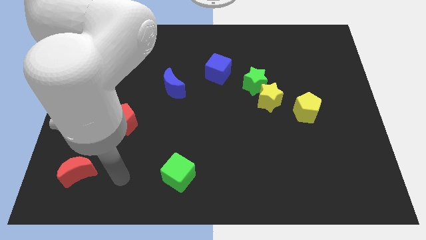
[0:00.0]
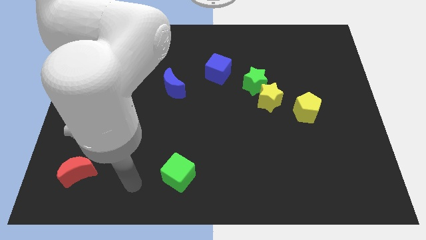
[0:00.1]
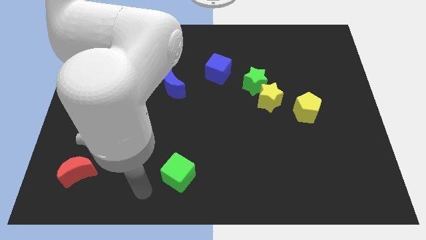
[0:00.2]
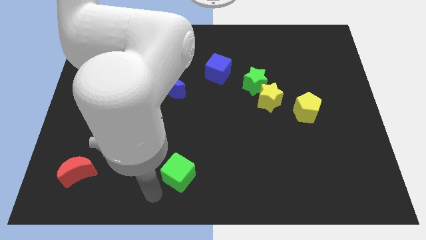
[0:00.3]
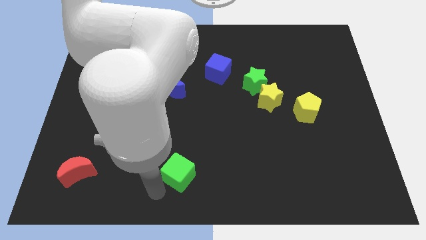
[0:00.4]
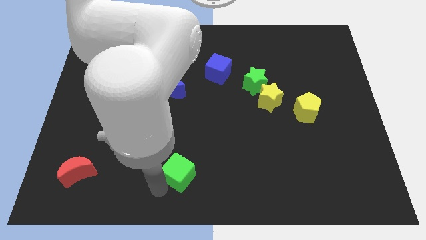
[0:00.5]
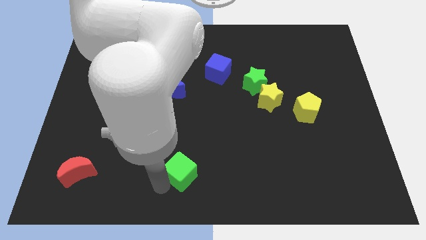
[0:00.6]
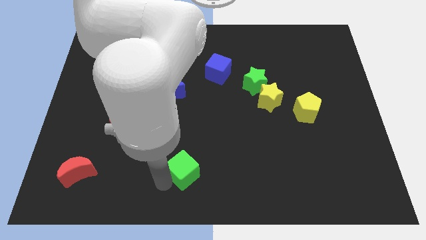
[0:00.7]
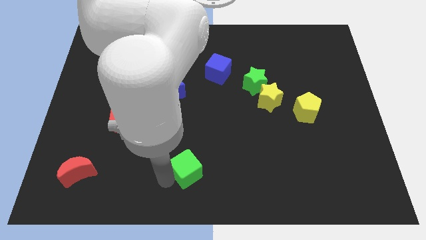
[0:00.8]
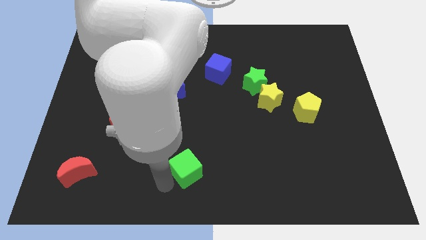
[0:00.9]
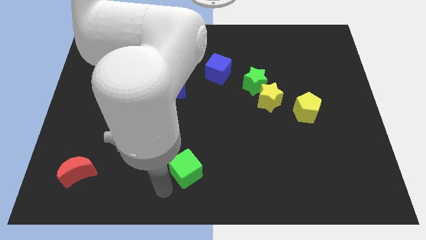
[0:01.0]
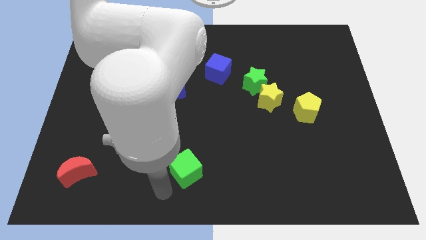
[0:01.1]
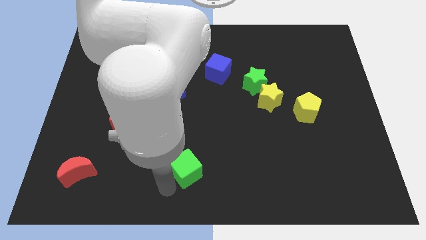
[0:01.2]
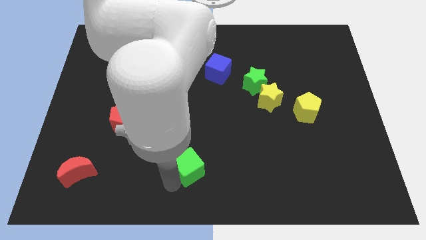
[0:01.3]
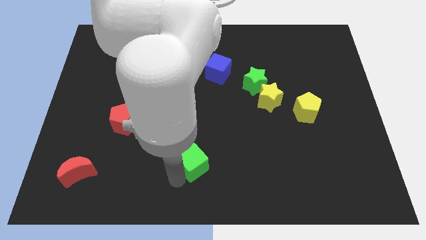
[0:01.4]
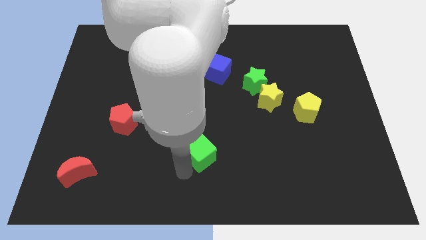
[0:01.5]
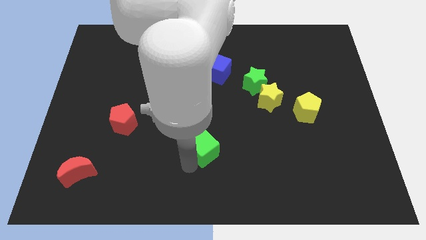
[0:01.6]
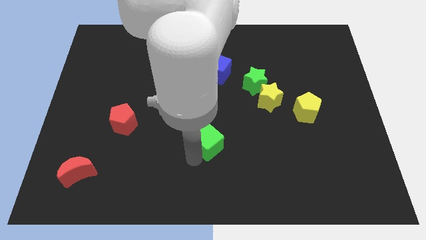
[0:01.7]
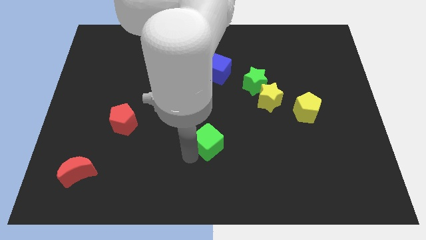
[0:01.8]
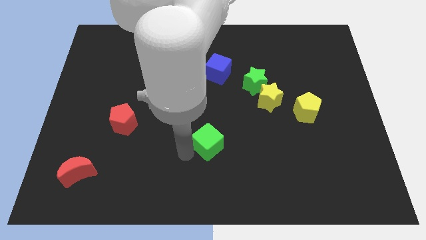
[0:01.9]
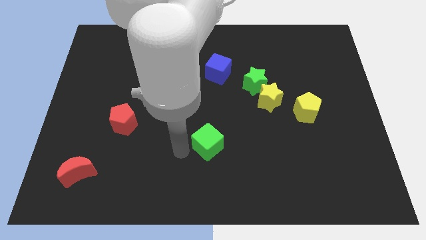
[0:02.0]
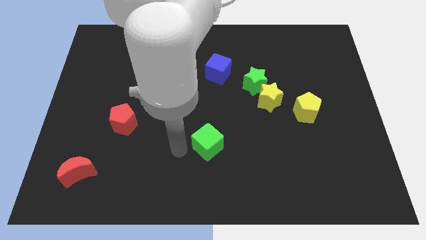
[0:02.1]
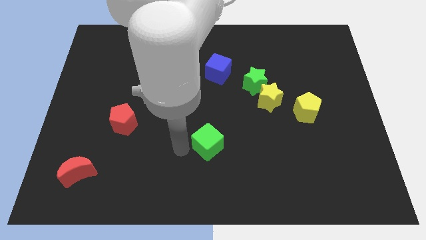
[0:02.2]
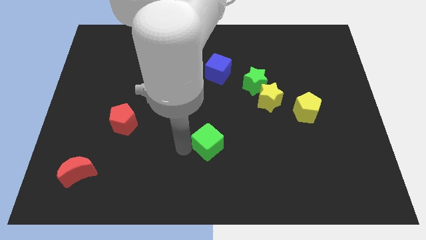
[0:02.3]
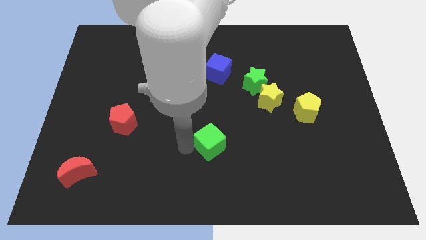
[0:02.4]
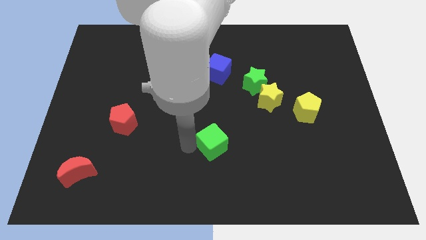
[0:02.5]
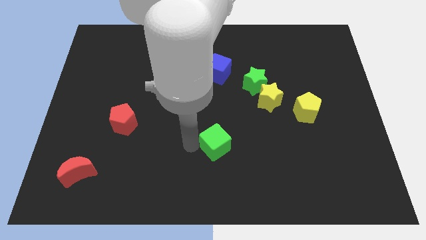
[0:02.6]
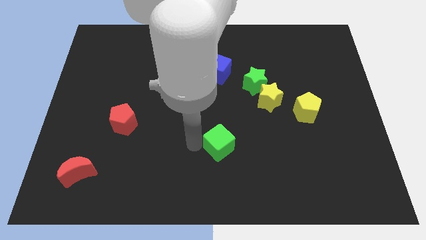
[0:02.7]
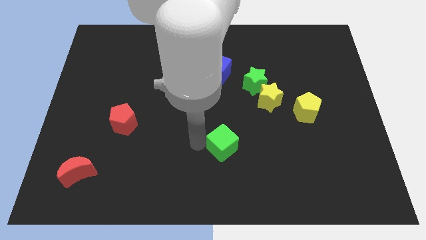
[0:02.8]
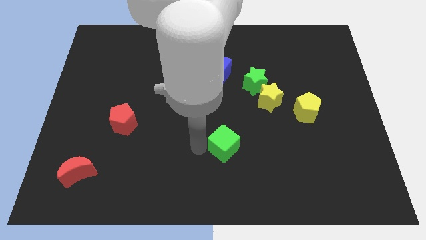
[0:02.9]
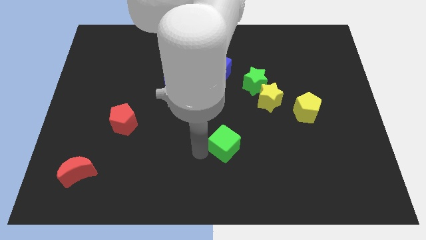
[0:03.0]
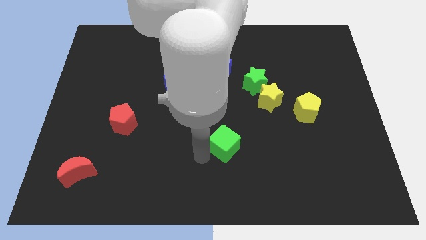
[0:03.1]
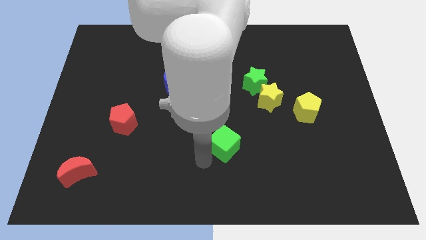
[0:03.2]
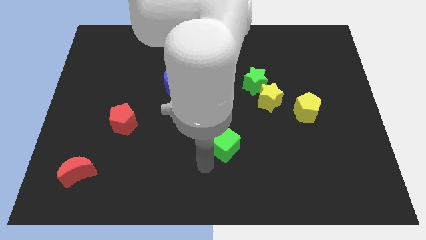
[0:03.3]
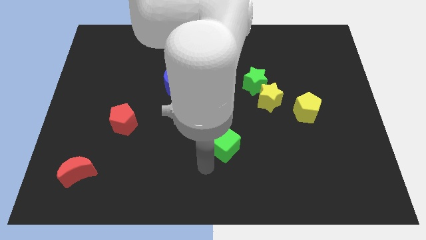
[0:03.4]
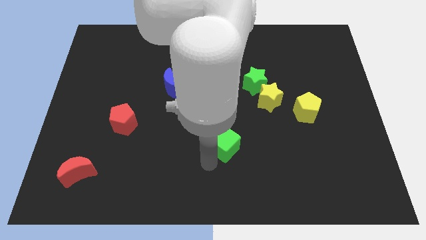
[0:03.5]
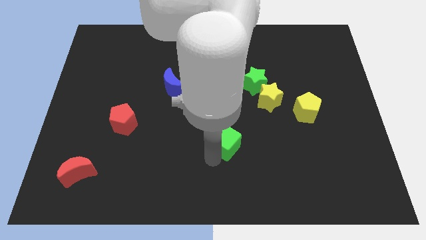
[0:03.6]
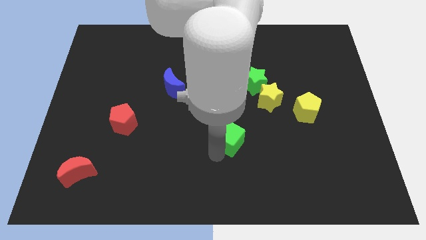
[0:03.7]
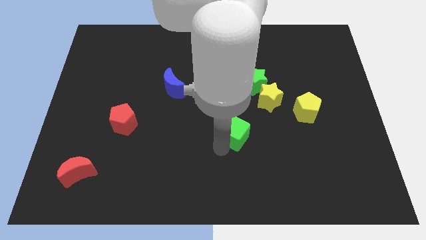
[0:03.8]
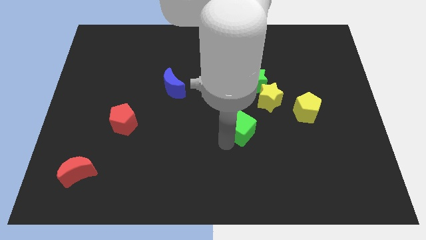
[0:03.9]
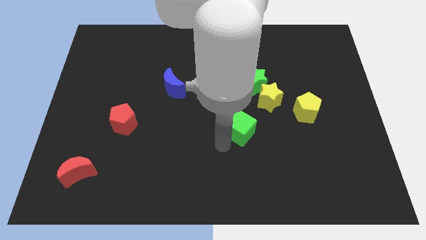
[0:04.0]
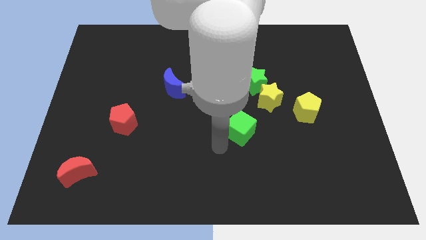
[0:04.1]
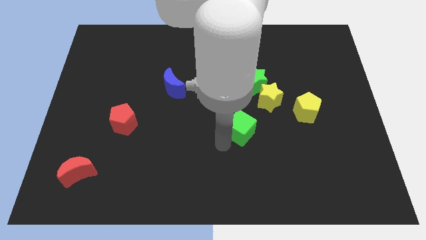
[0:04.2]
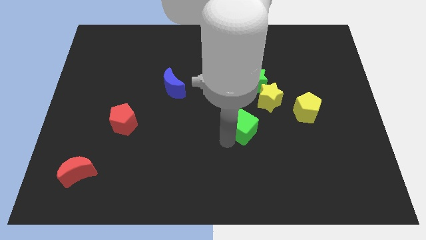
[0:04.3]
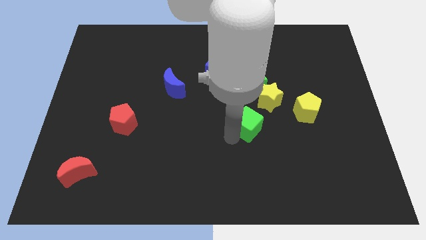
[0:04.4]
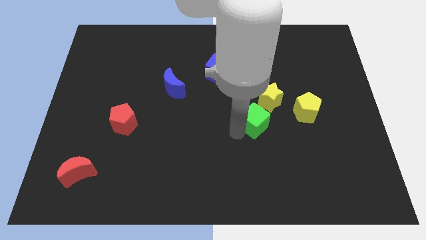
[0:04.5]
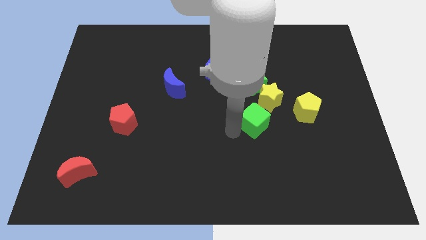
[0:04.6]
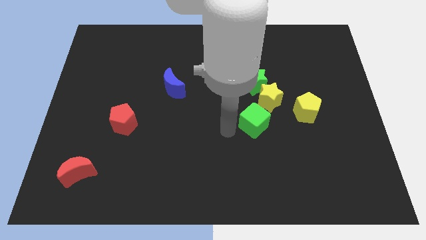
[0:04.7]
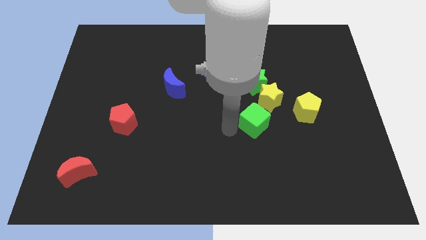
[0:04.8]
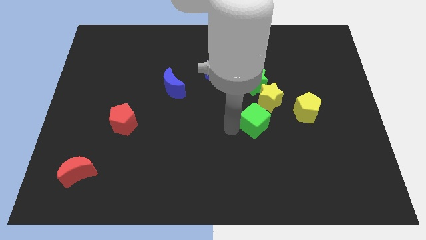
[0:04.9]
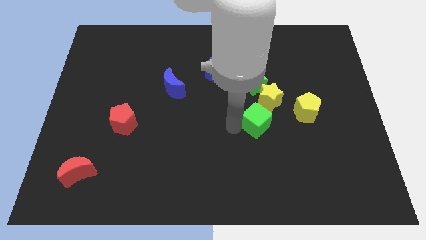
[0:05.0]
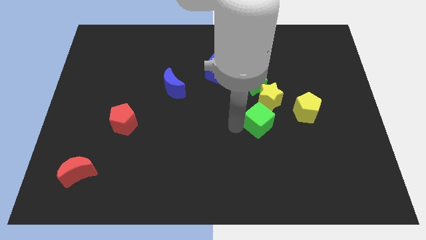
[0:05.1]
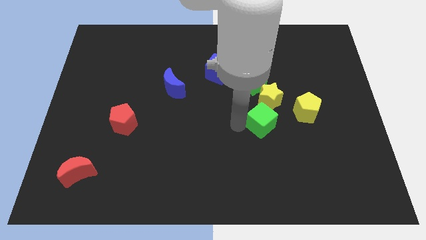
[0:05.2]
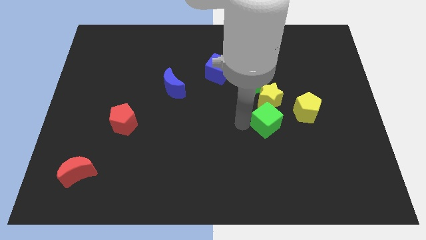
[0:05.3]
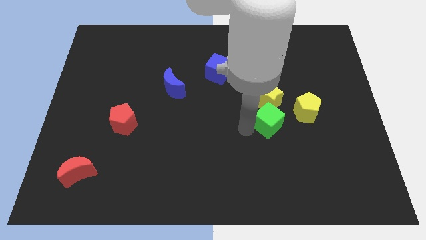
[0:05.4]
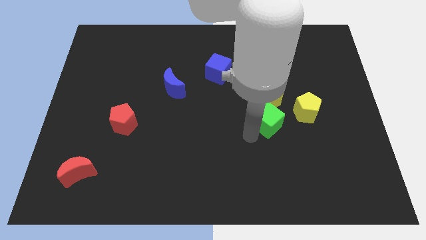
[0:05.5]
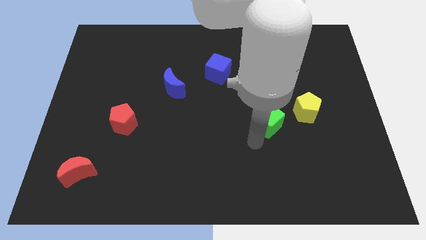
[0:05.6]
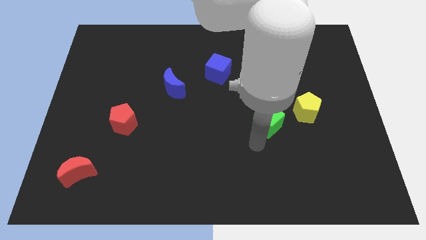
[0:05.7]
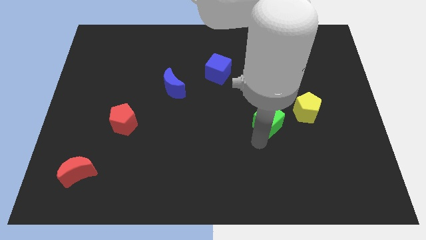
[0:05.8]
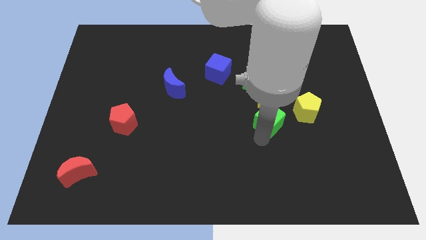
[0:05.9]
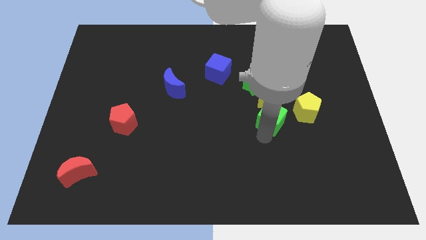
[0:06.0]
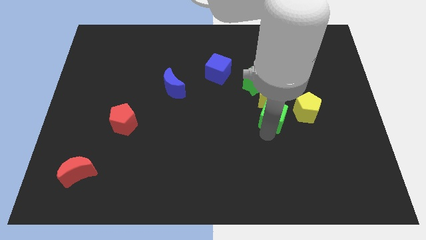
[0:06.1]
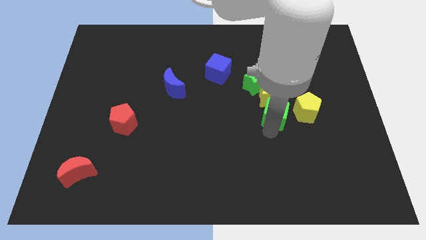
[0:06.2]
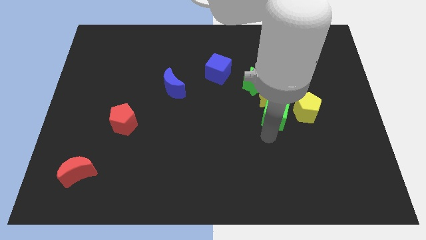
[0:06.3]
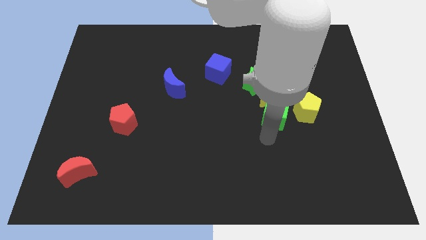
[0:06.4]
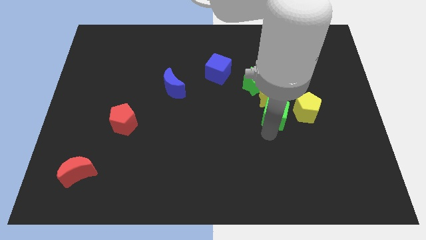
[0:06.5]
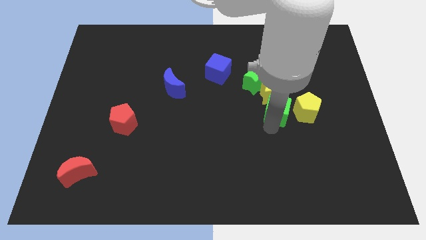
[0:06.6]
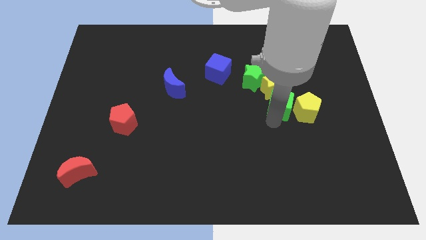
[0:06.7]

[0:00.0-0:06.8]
put the green cube diagonally up and to the left of the yellow pentagon
